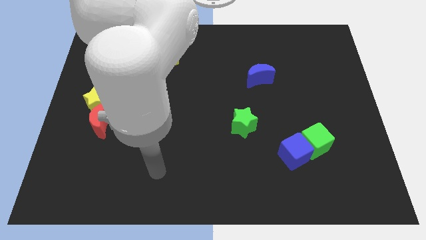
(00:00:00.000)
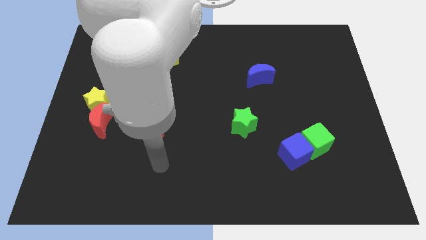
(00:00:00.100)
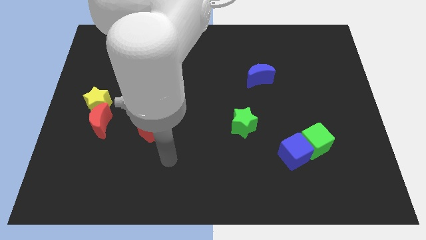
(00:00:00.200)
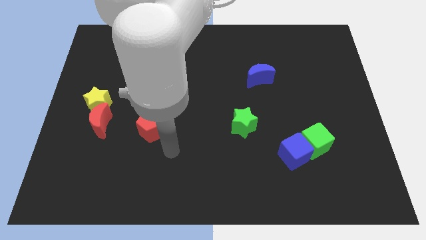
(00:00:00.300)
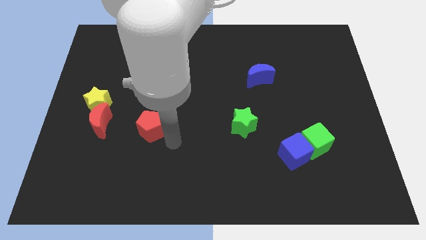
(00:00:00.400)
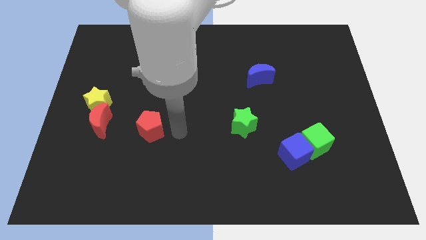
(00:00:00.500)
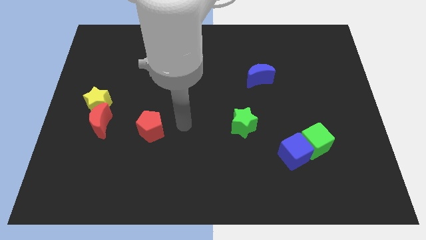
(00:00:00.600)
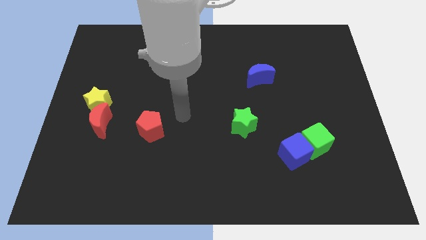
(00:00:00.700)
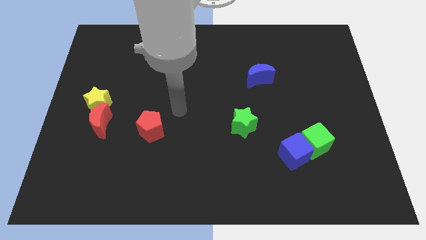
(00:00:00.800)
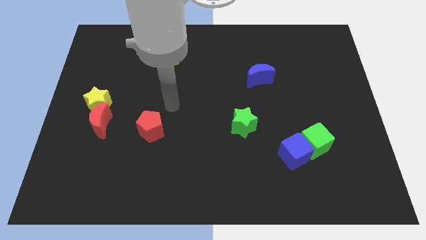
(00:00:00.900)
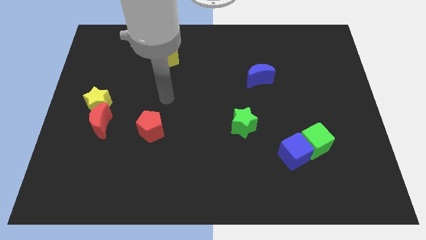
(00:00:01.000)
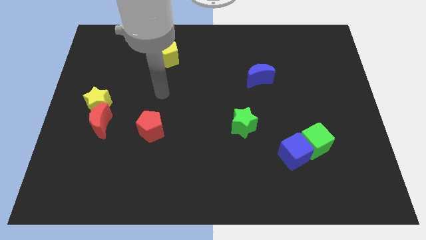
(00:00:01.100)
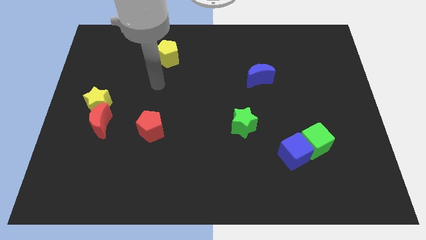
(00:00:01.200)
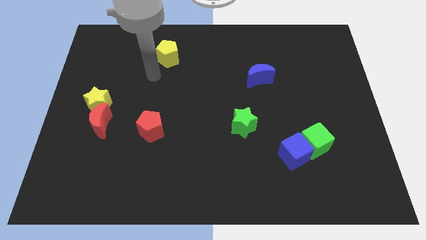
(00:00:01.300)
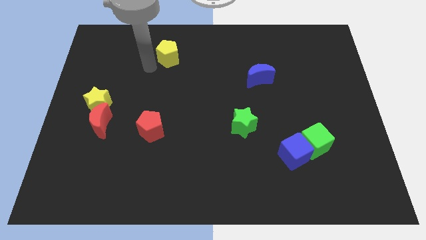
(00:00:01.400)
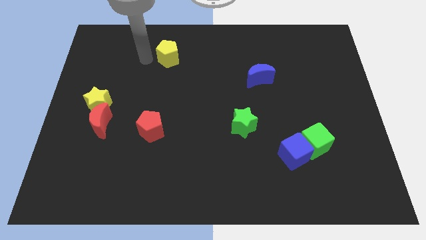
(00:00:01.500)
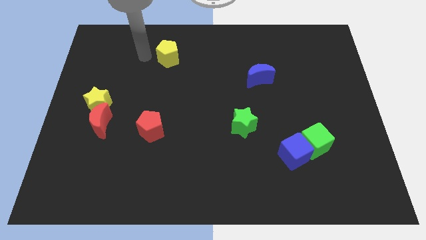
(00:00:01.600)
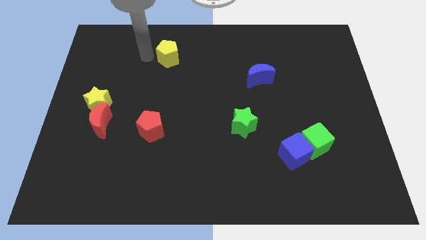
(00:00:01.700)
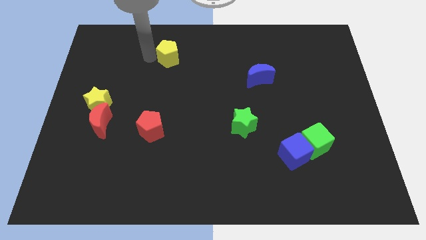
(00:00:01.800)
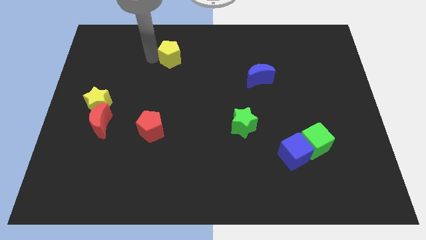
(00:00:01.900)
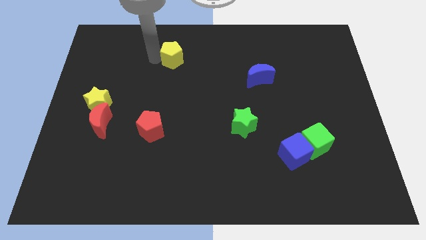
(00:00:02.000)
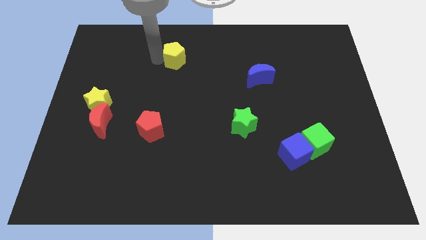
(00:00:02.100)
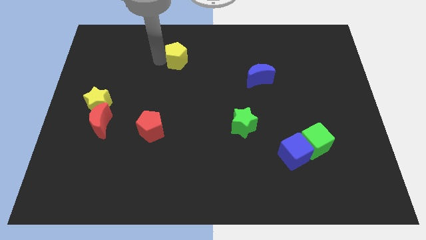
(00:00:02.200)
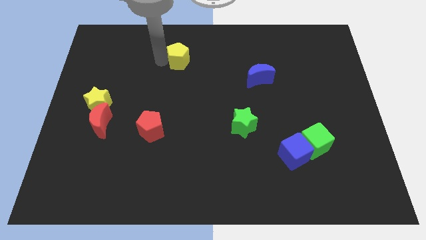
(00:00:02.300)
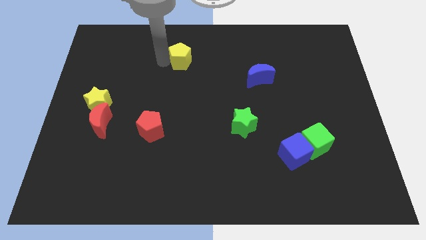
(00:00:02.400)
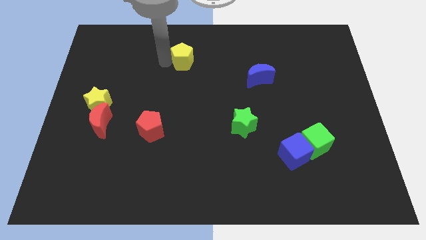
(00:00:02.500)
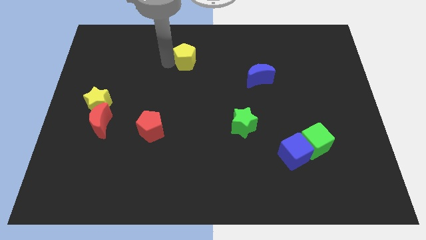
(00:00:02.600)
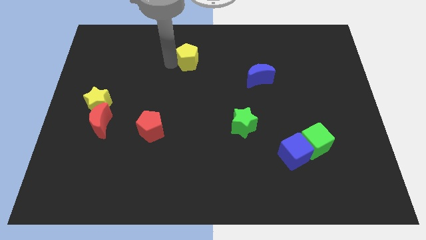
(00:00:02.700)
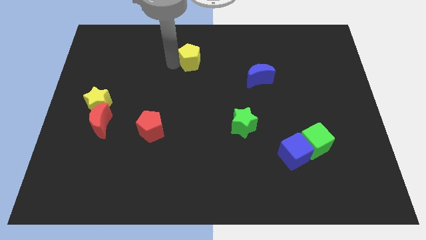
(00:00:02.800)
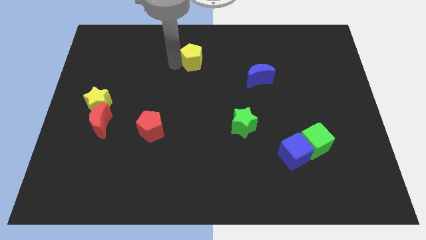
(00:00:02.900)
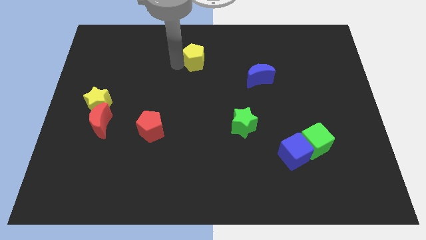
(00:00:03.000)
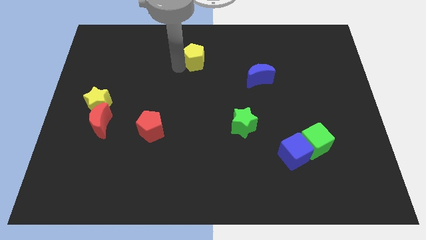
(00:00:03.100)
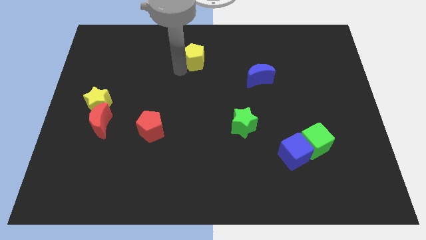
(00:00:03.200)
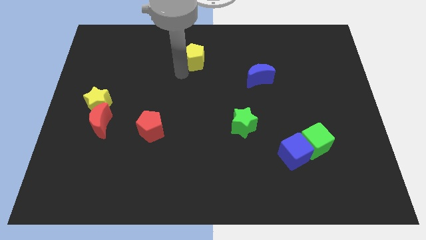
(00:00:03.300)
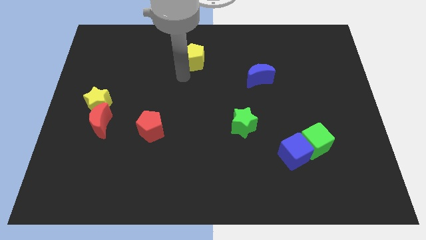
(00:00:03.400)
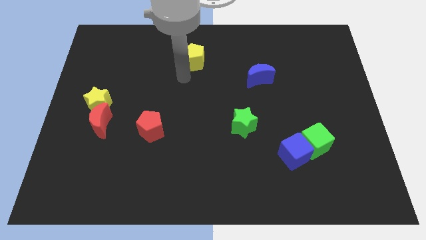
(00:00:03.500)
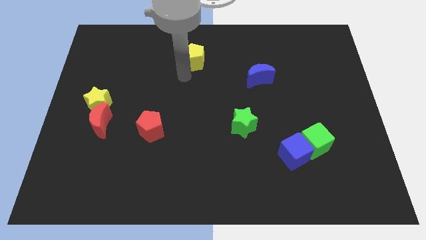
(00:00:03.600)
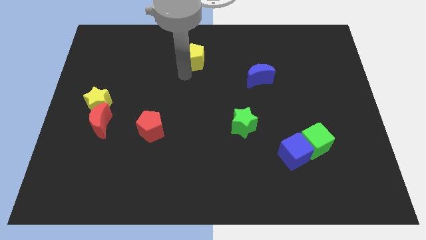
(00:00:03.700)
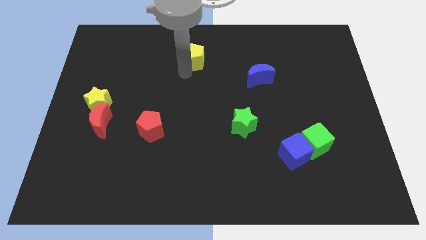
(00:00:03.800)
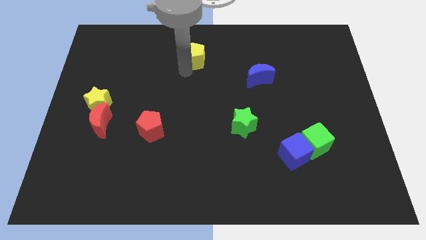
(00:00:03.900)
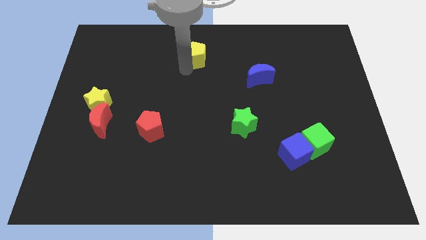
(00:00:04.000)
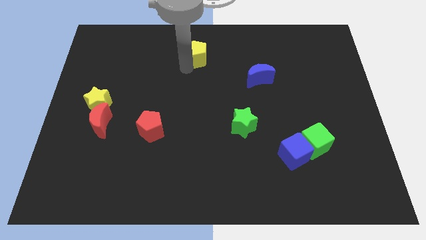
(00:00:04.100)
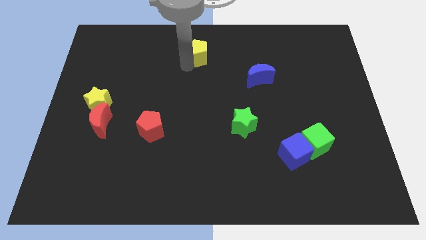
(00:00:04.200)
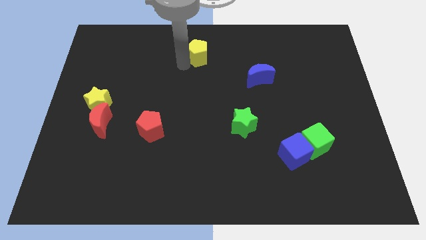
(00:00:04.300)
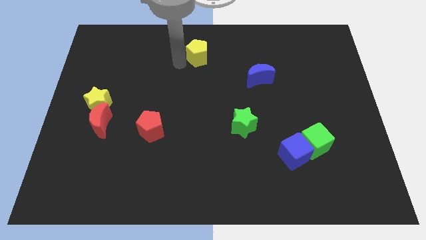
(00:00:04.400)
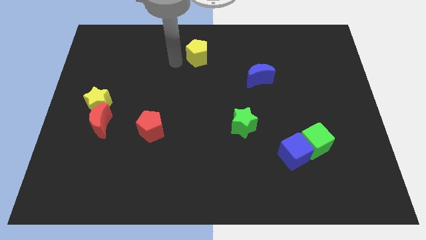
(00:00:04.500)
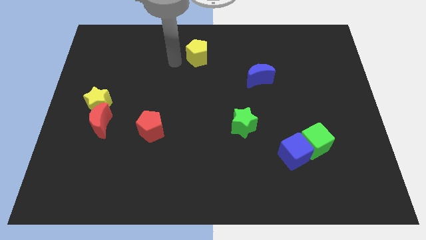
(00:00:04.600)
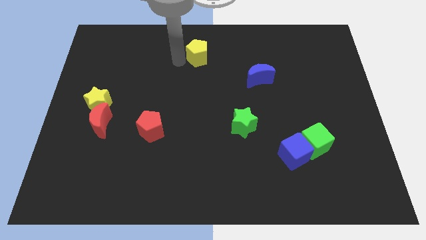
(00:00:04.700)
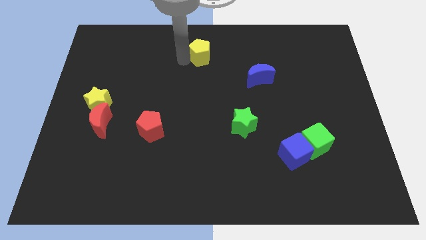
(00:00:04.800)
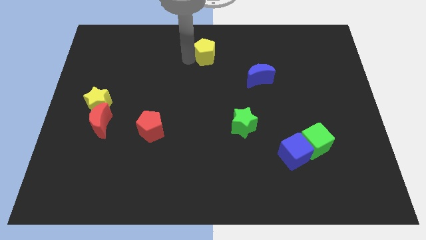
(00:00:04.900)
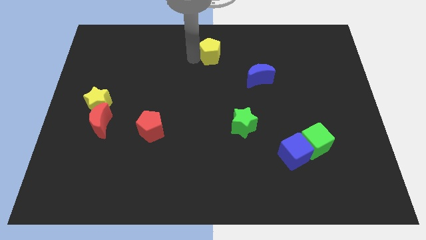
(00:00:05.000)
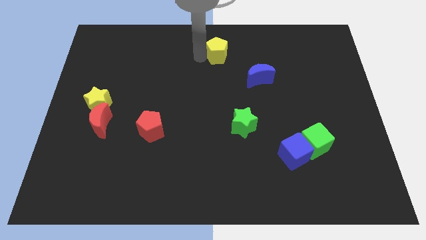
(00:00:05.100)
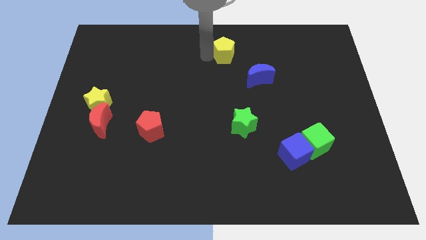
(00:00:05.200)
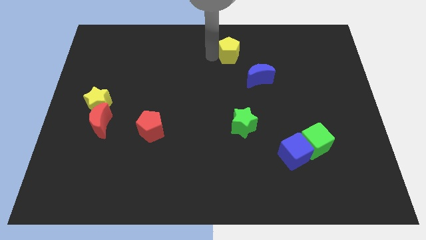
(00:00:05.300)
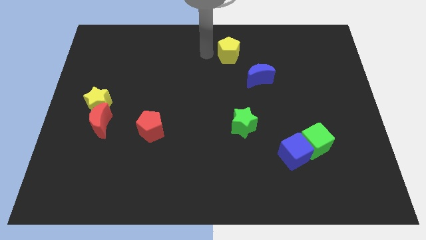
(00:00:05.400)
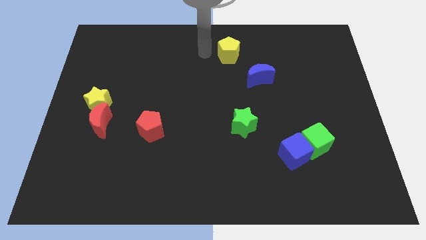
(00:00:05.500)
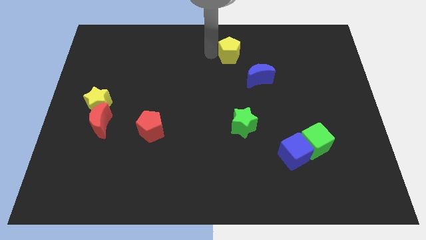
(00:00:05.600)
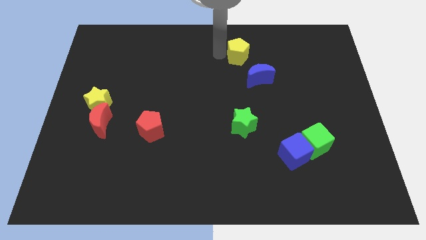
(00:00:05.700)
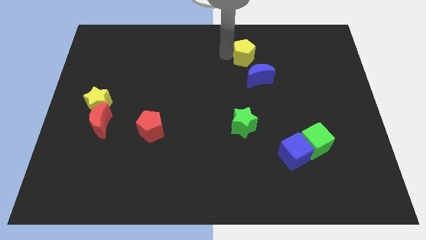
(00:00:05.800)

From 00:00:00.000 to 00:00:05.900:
move the yellow pentagon right

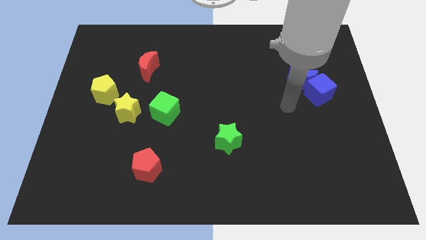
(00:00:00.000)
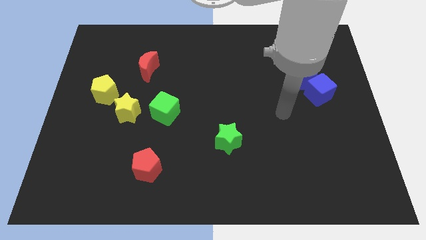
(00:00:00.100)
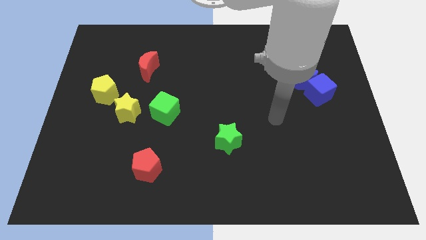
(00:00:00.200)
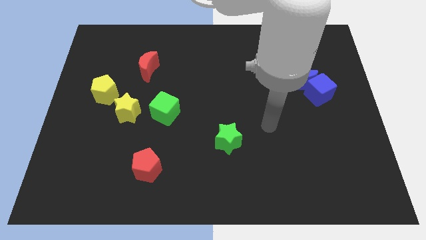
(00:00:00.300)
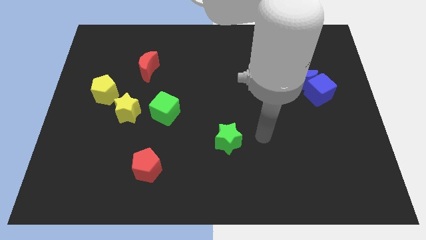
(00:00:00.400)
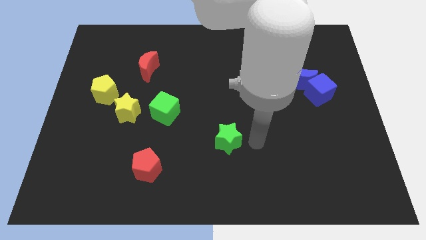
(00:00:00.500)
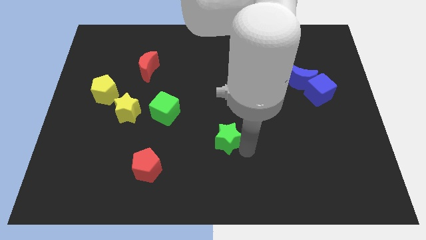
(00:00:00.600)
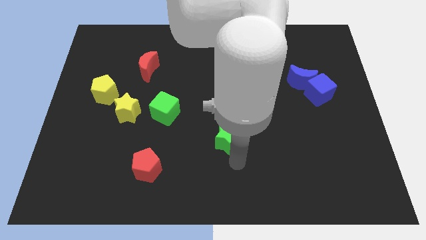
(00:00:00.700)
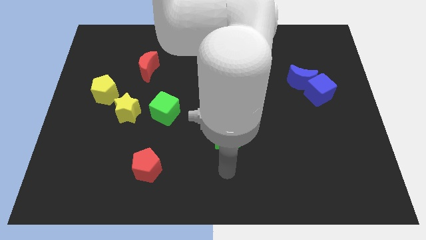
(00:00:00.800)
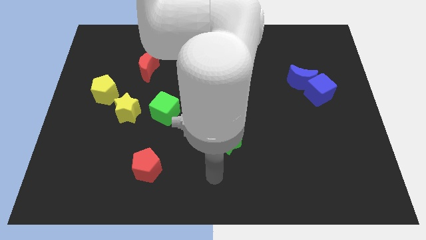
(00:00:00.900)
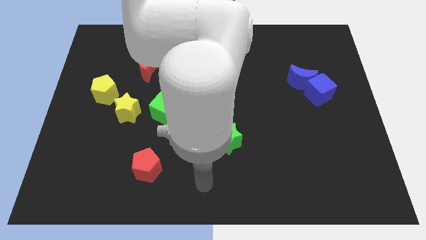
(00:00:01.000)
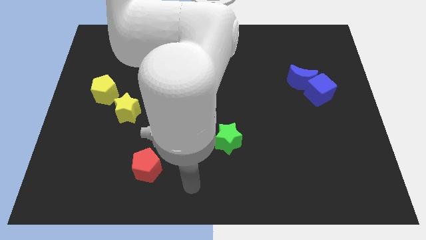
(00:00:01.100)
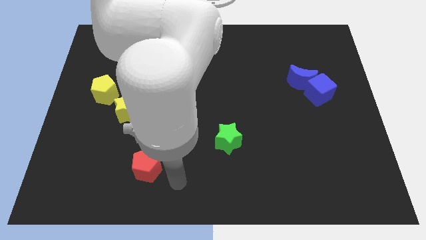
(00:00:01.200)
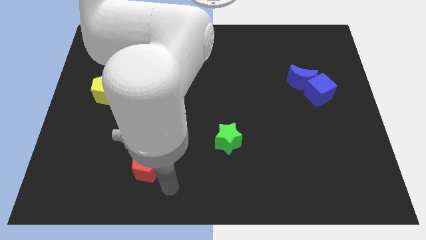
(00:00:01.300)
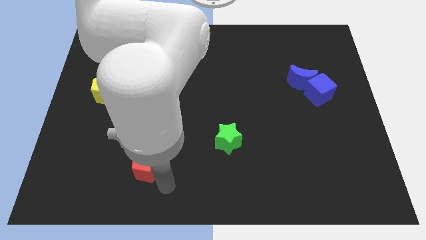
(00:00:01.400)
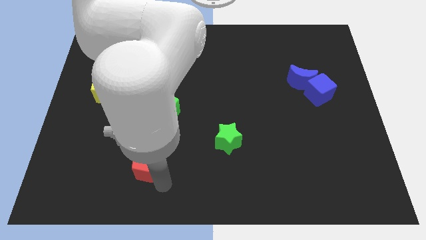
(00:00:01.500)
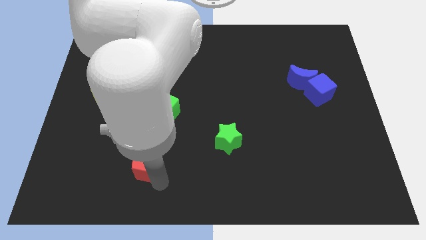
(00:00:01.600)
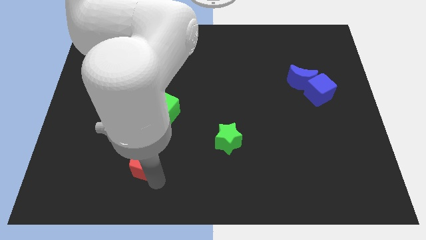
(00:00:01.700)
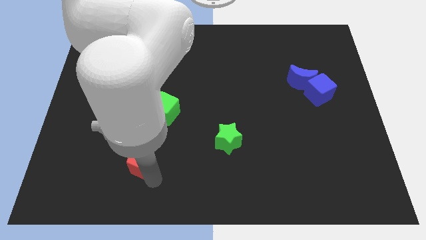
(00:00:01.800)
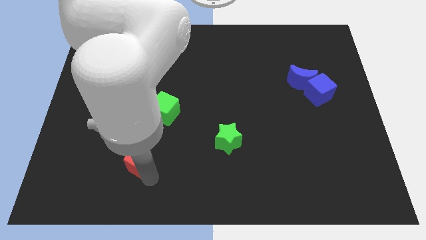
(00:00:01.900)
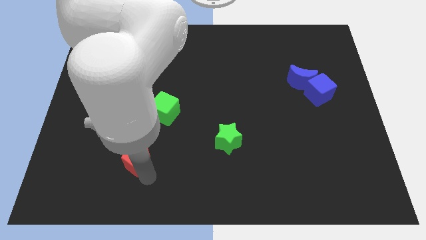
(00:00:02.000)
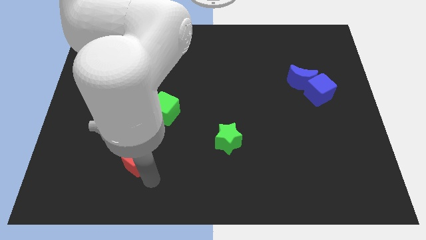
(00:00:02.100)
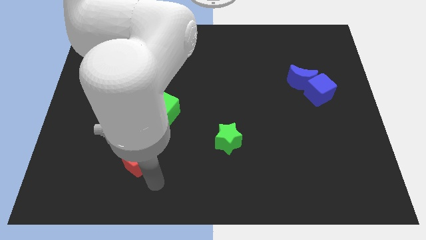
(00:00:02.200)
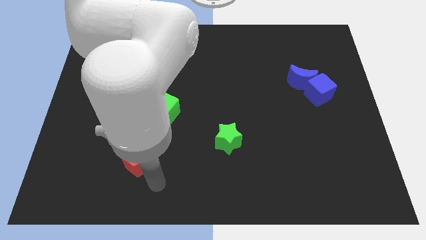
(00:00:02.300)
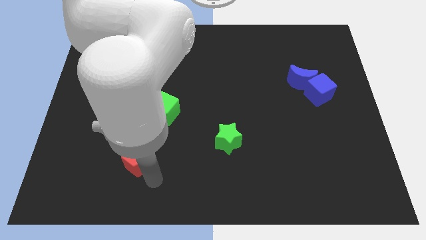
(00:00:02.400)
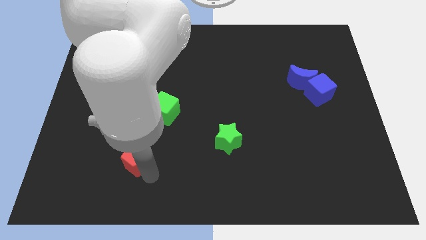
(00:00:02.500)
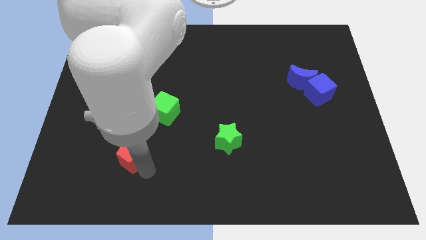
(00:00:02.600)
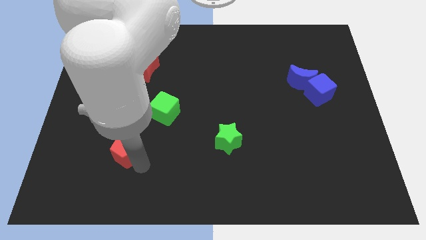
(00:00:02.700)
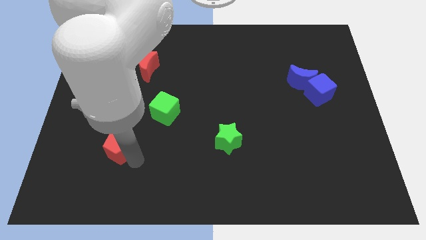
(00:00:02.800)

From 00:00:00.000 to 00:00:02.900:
move the red pentagon a little up and to the left
